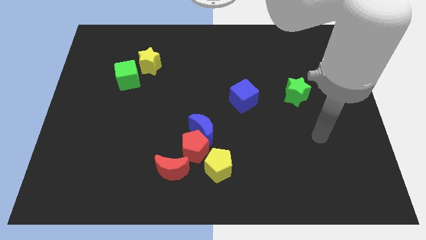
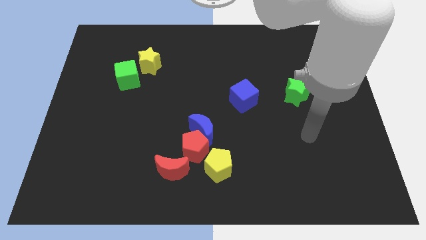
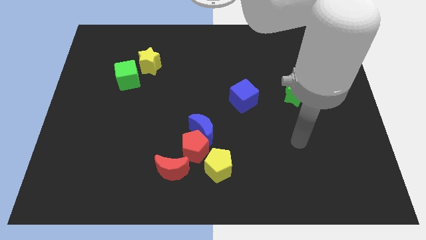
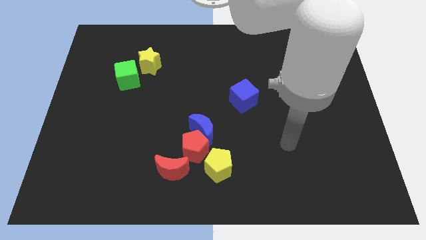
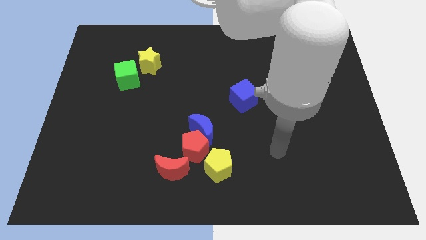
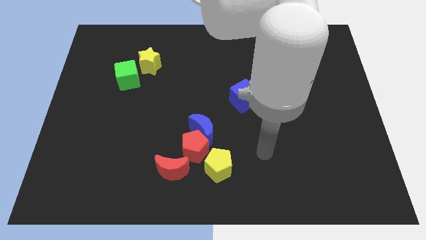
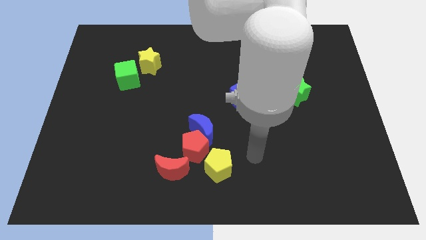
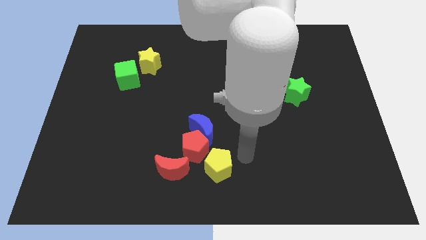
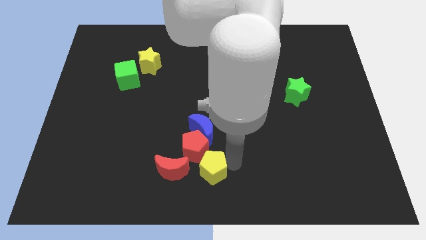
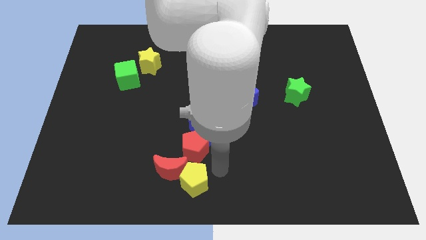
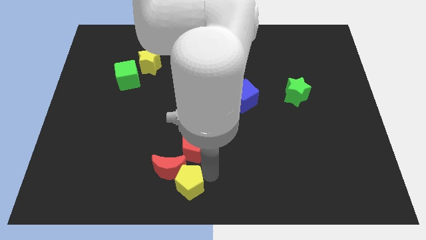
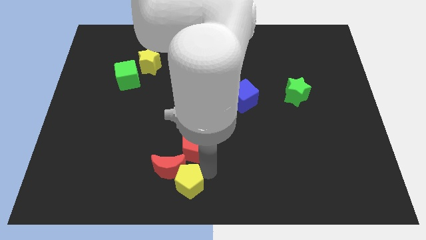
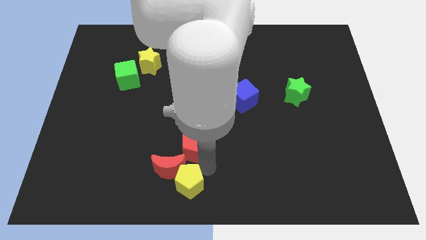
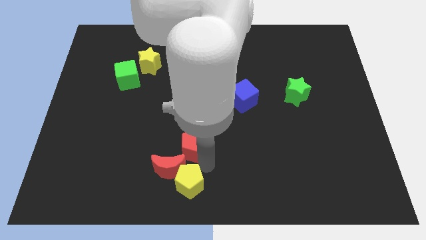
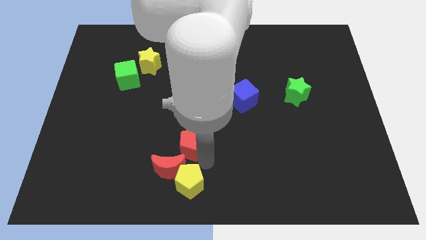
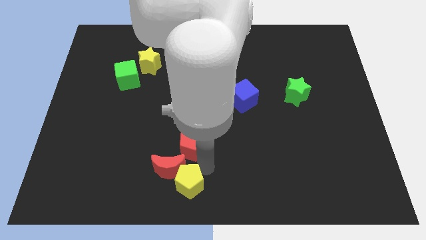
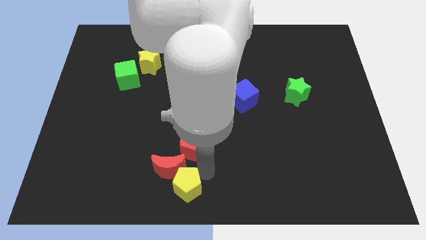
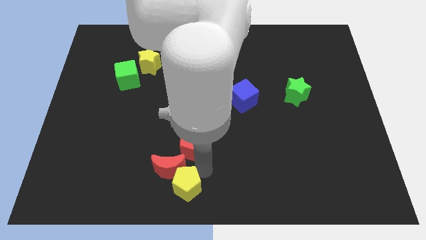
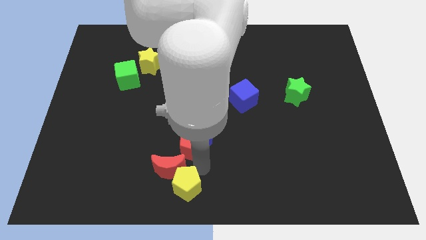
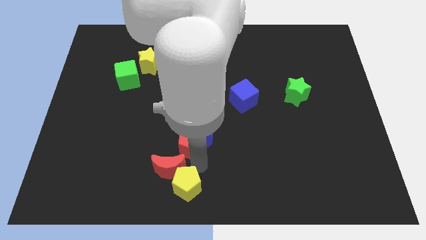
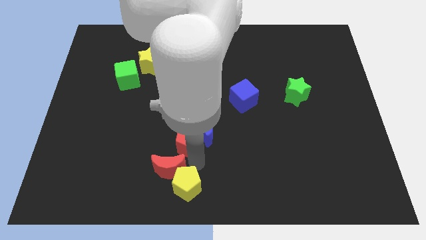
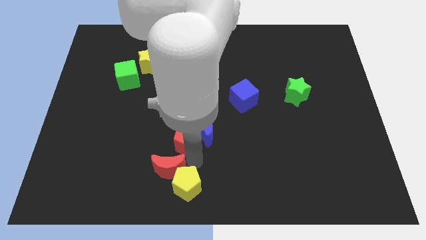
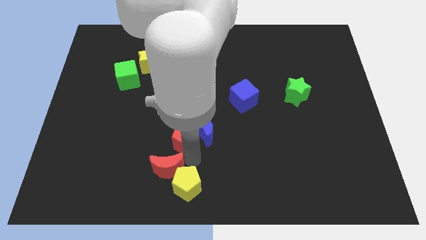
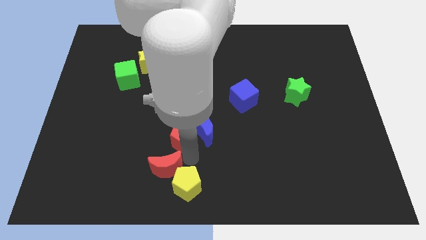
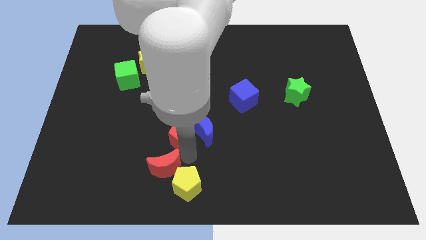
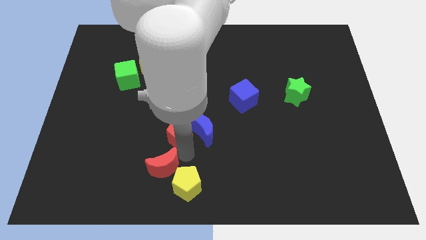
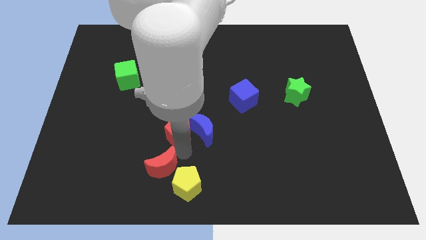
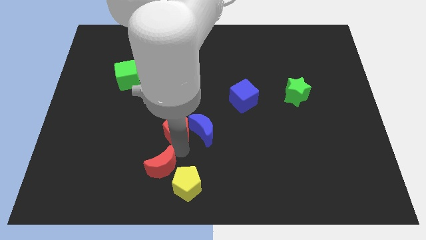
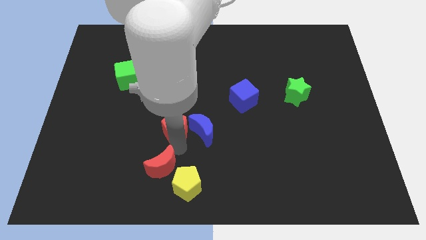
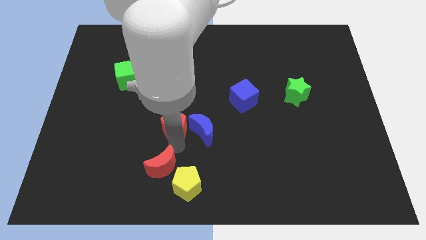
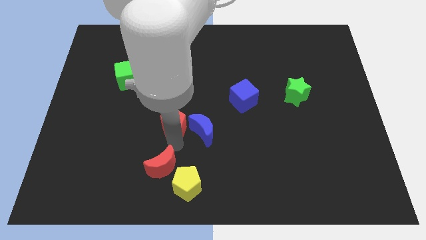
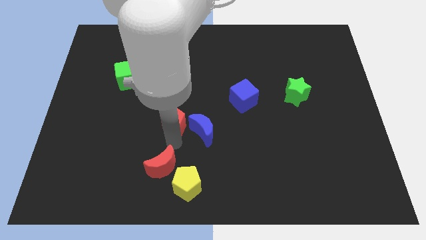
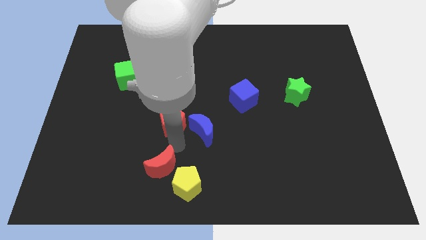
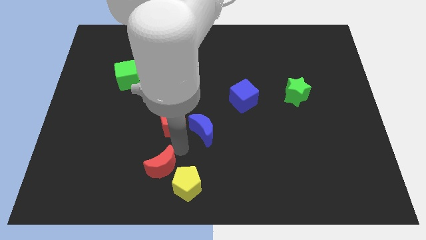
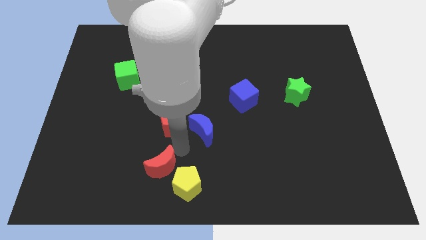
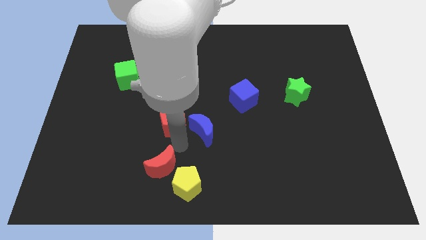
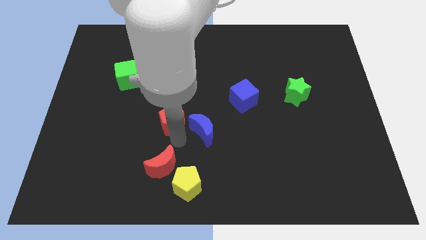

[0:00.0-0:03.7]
separate the red pentagon from the clump

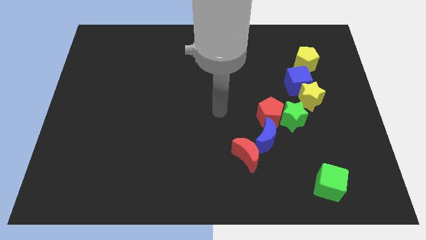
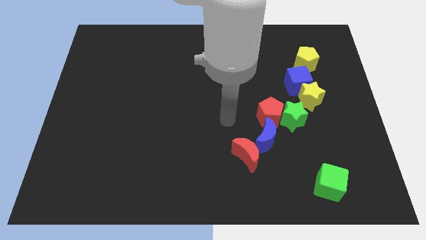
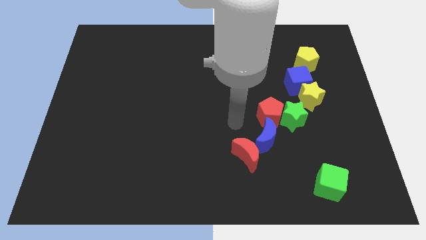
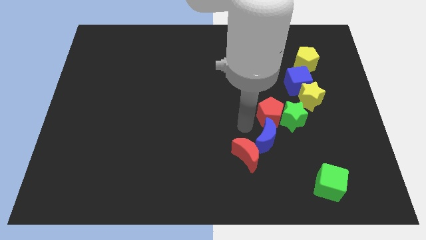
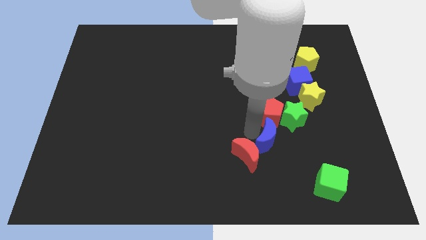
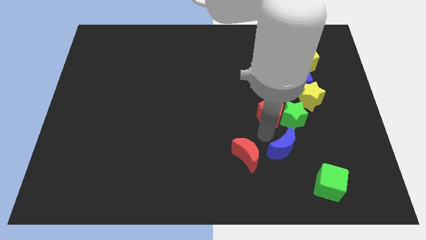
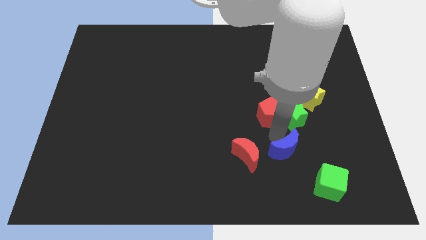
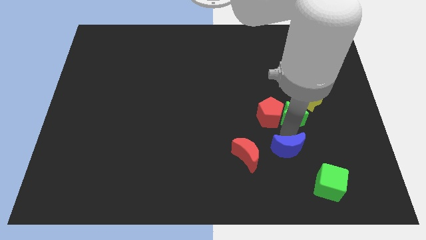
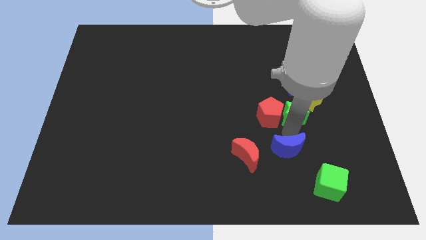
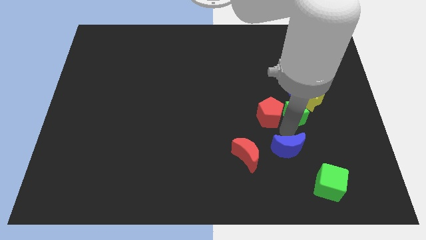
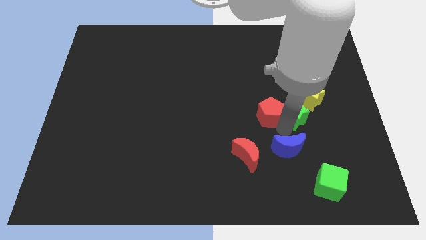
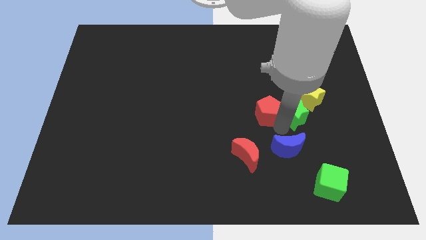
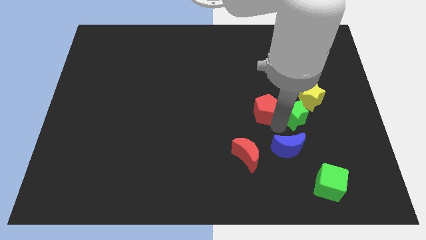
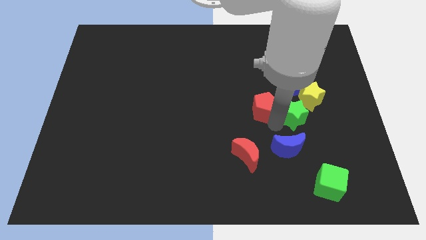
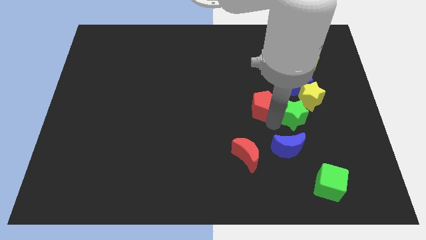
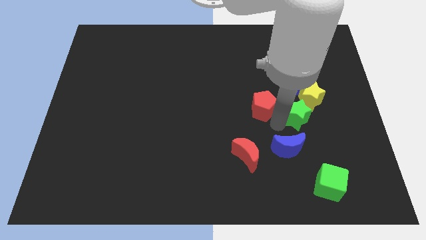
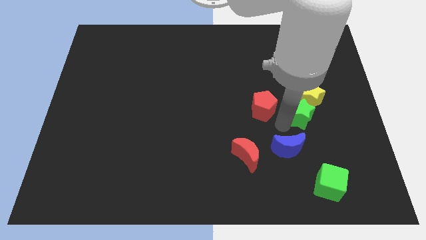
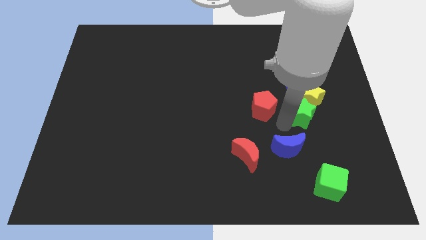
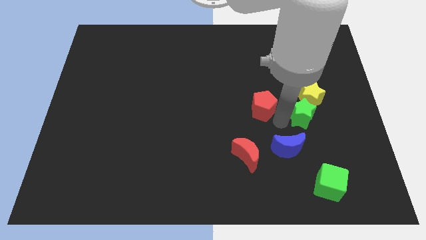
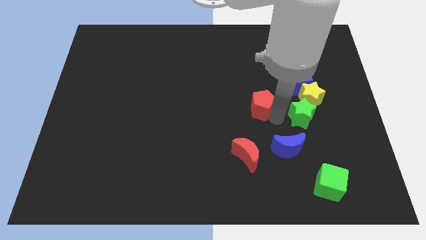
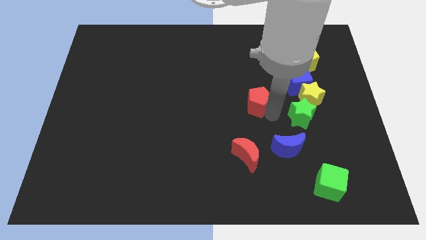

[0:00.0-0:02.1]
move the red pentagon away from the green star and blue moon

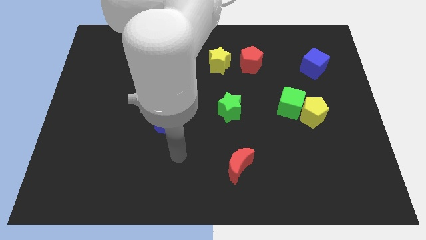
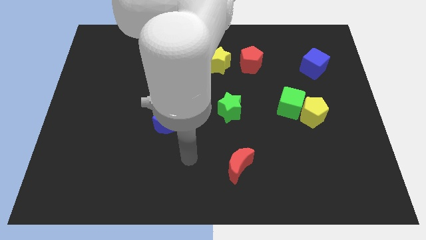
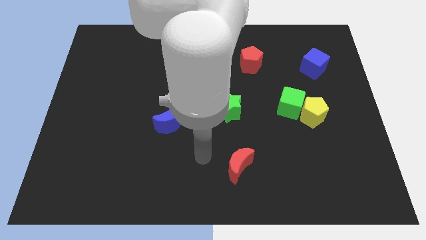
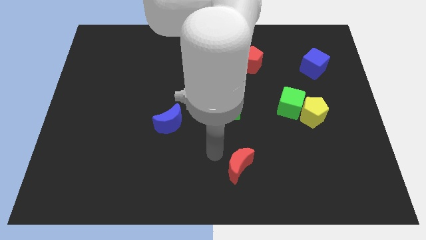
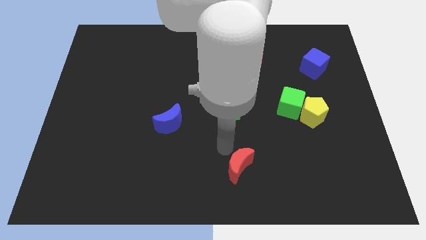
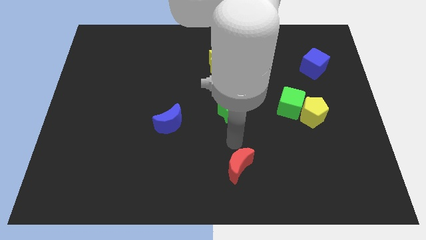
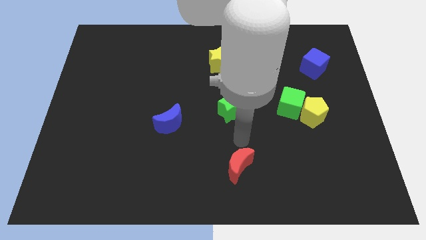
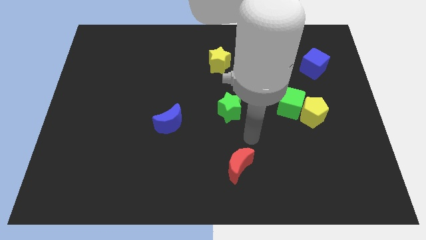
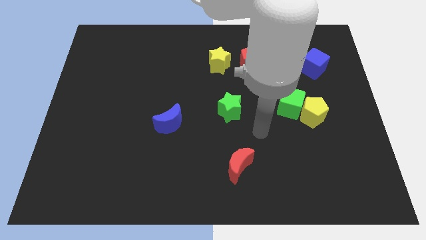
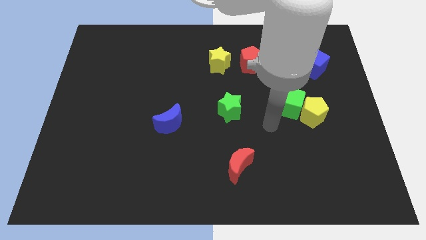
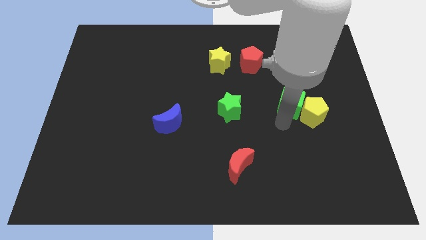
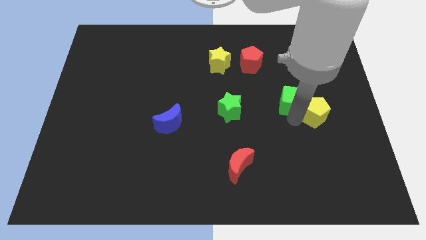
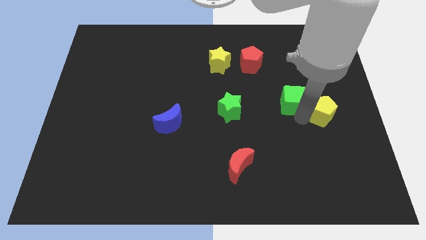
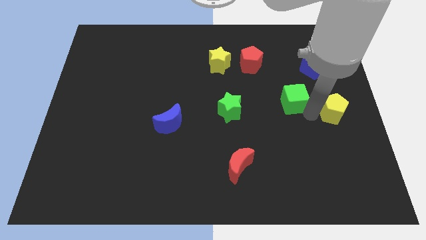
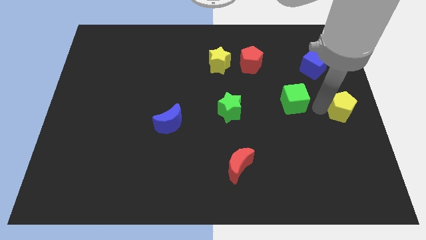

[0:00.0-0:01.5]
move the green cube away from the yellow pentagon

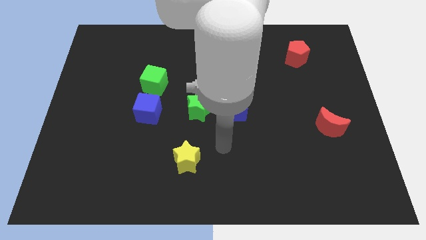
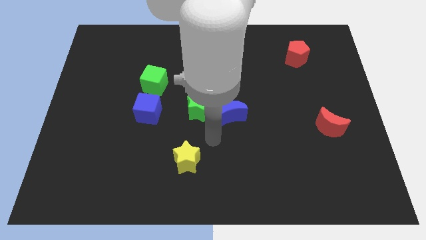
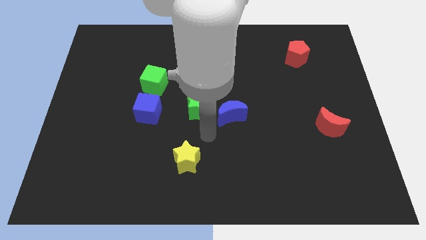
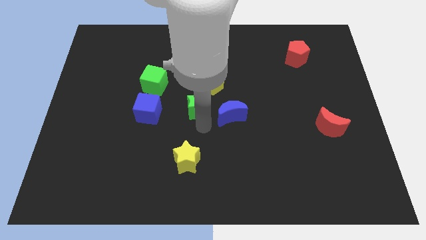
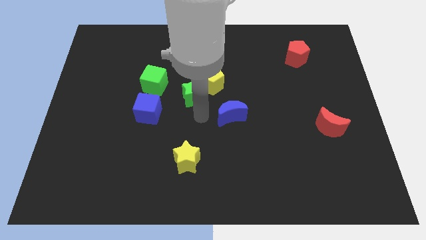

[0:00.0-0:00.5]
separate the blue moon from the green star

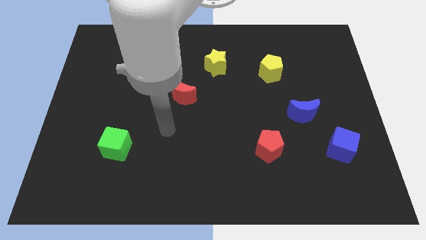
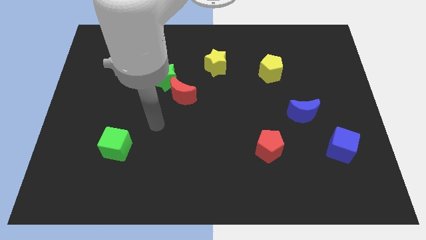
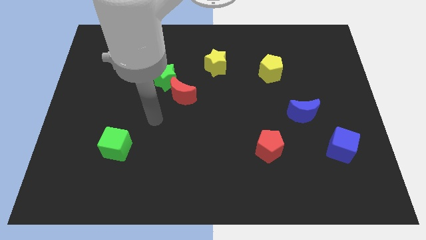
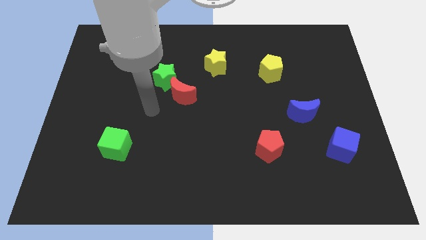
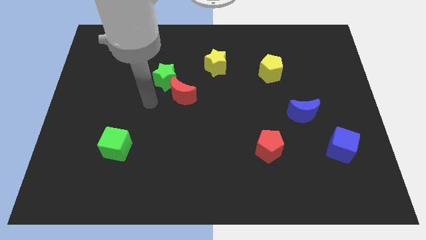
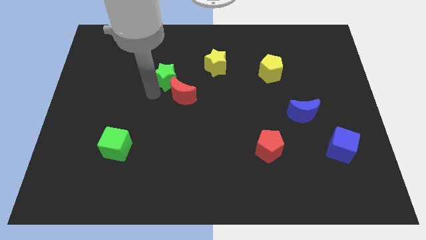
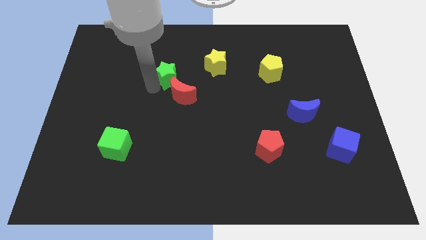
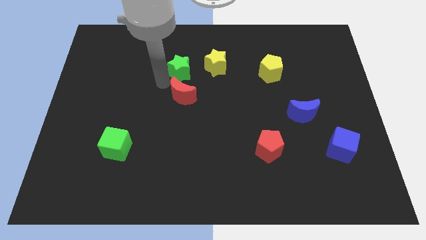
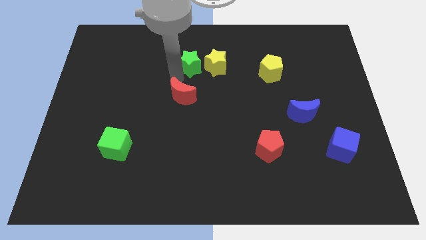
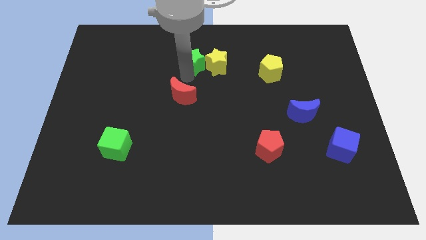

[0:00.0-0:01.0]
pull the red moon apart from the green star

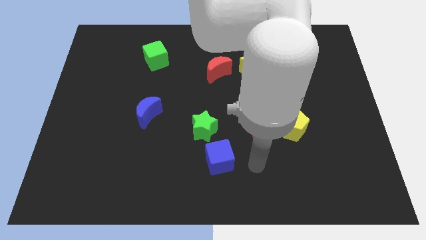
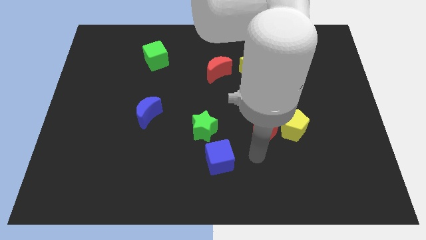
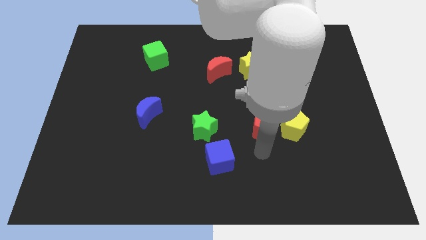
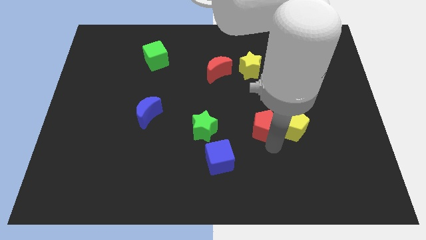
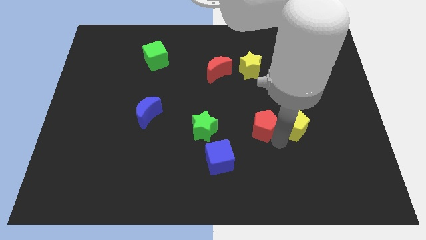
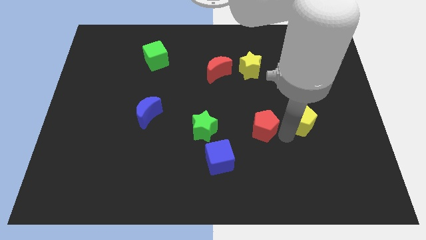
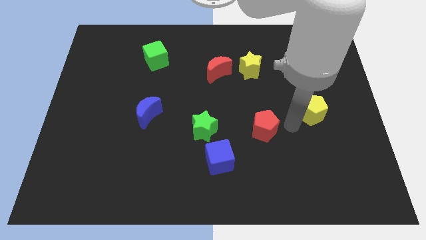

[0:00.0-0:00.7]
move the red pentagon away from the yellow pentagon
